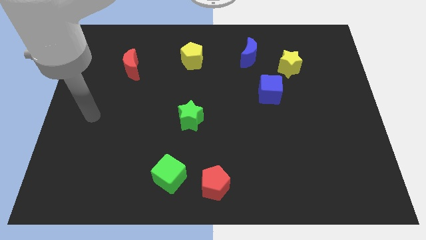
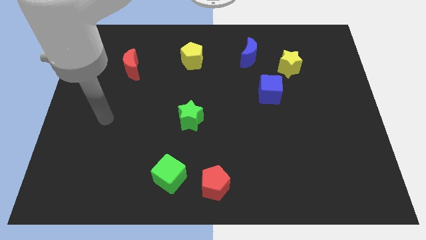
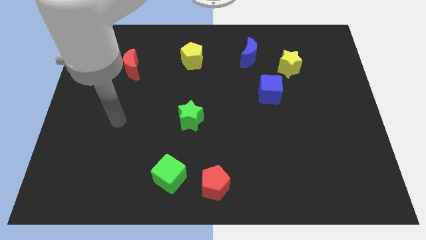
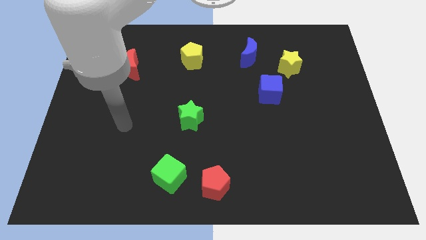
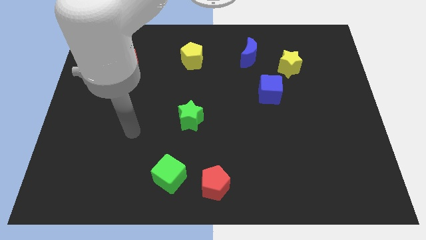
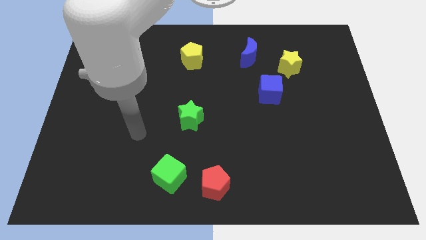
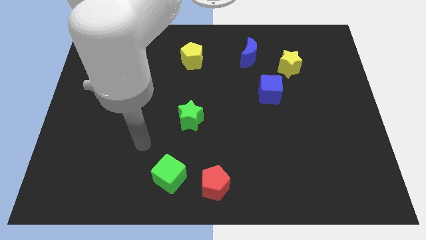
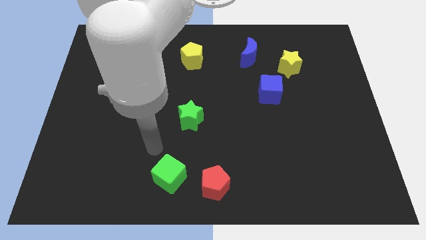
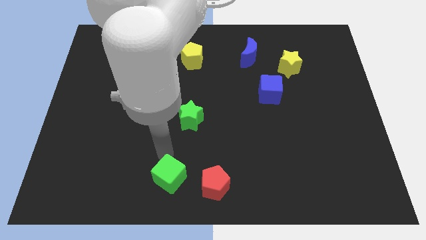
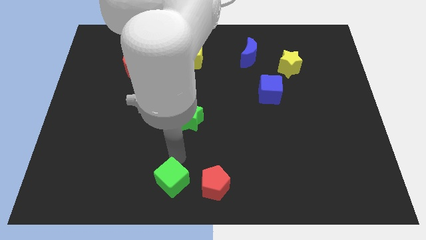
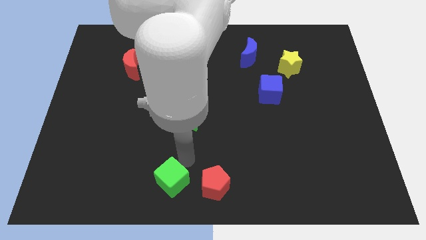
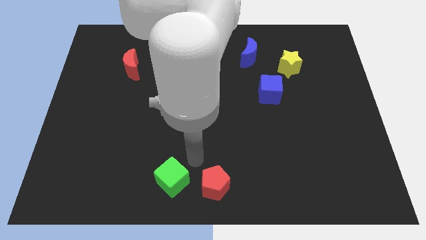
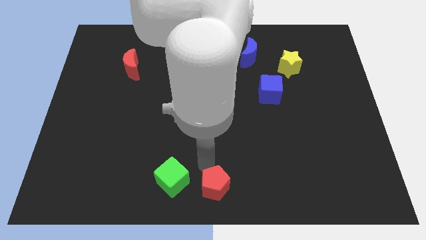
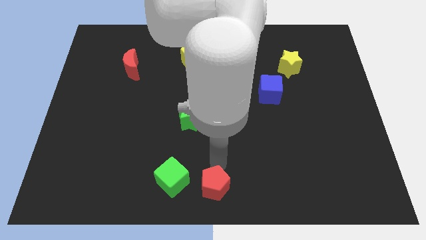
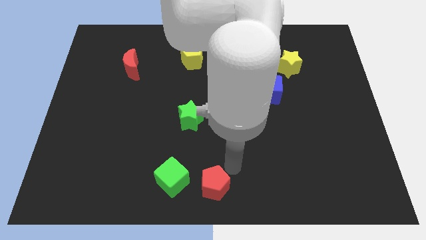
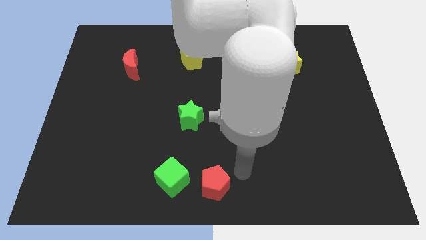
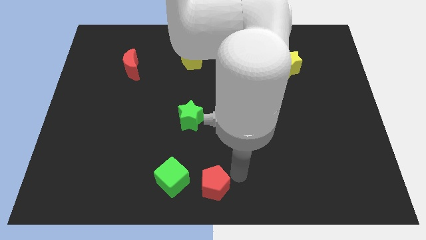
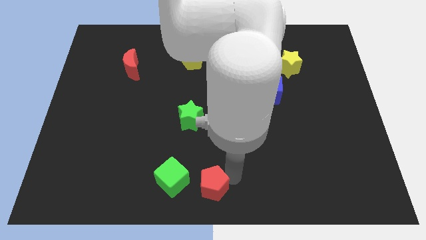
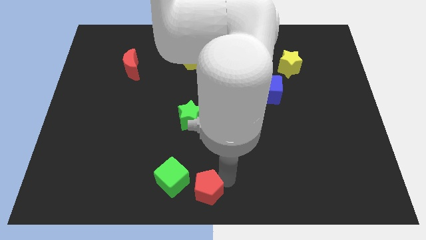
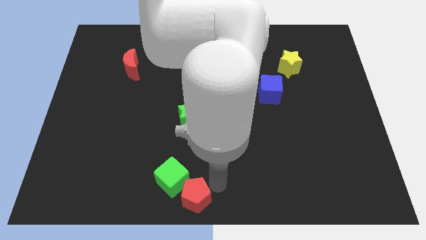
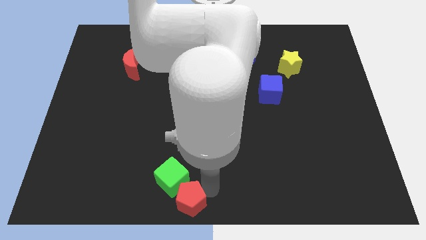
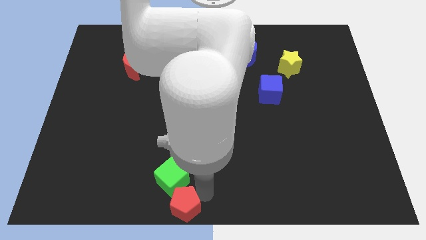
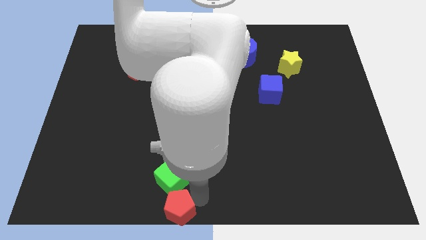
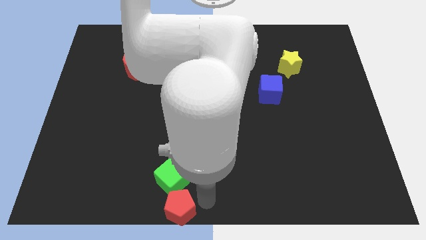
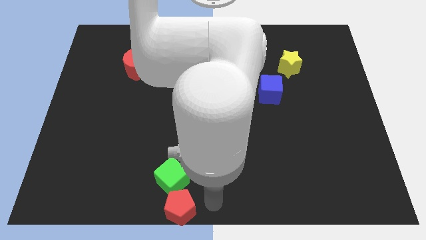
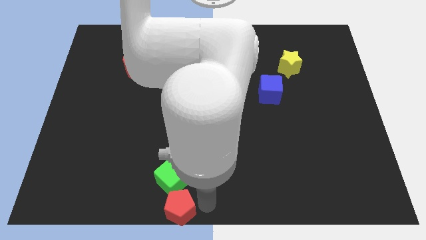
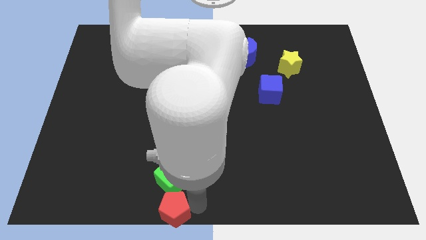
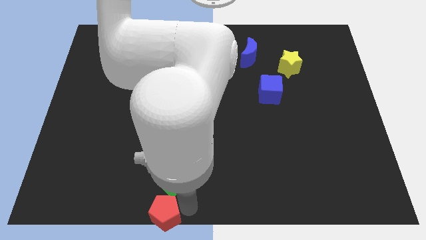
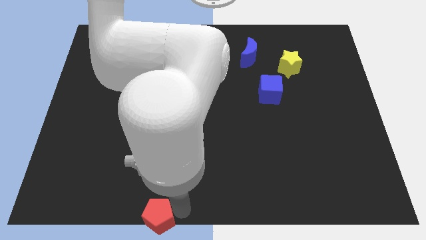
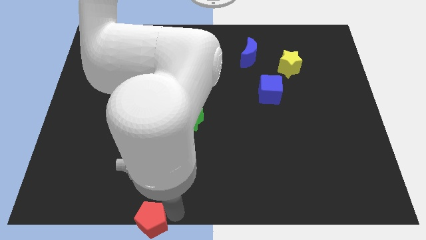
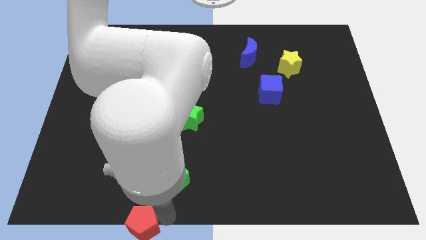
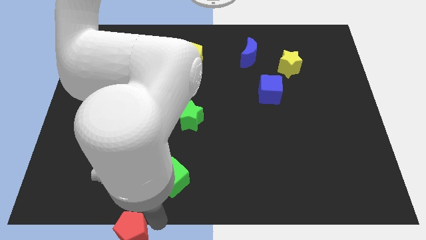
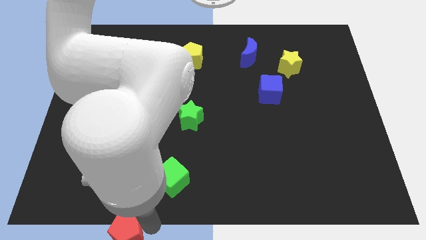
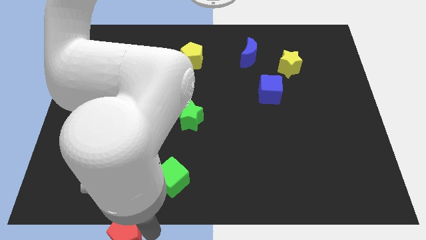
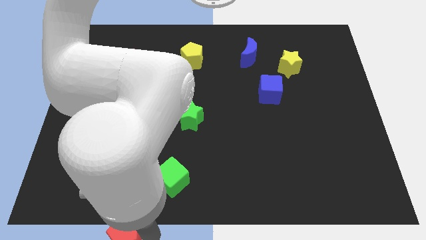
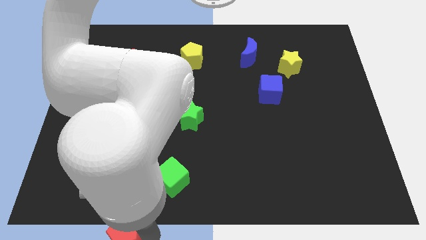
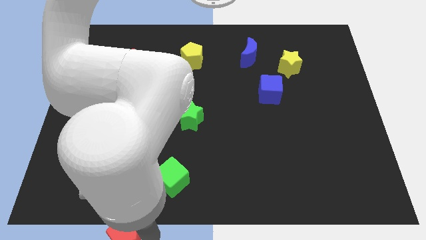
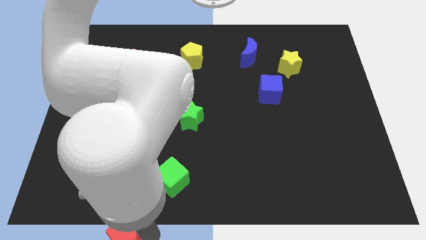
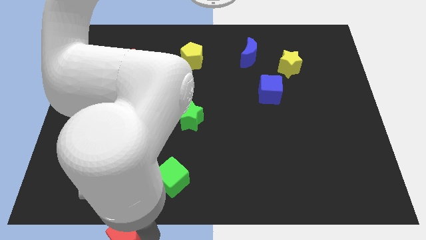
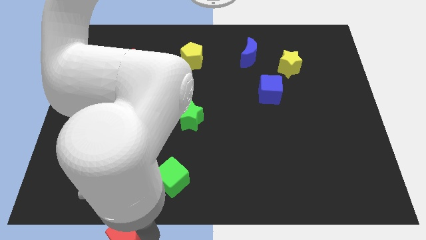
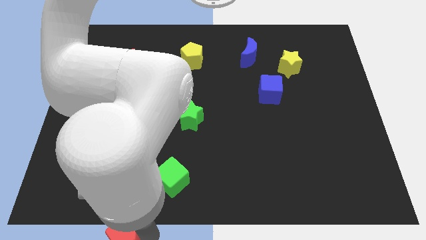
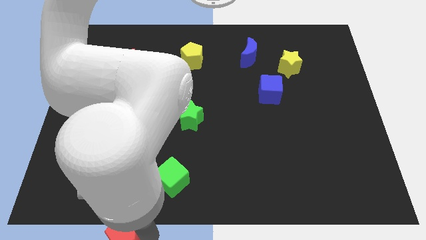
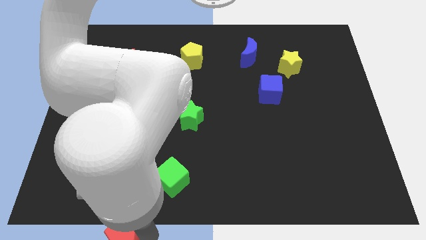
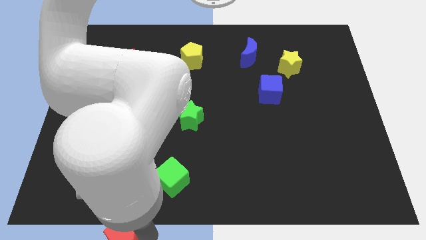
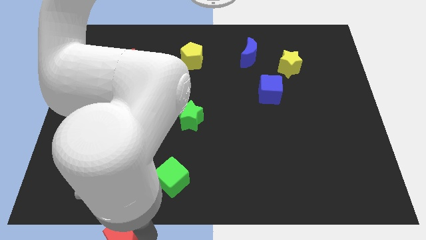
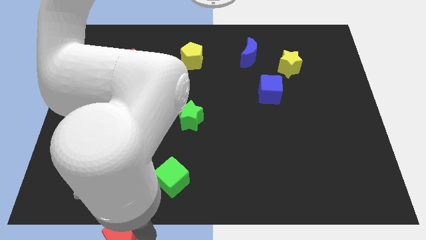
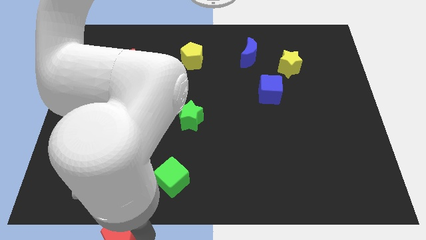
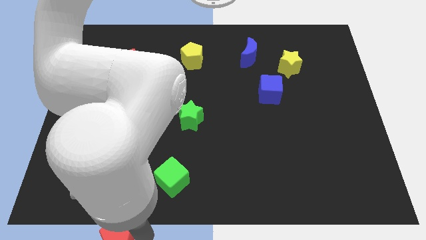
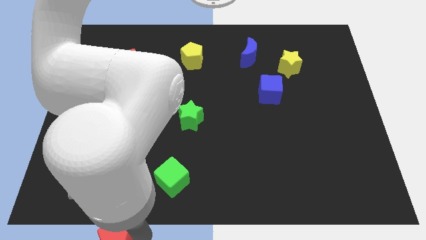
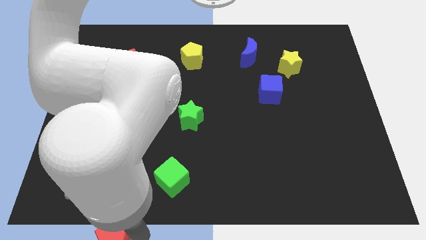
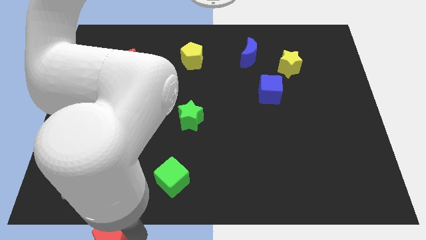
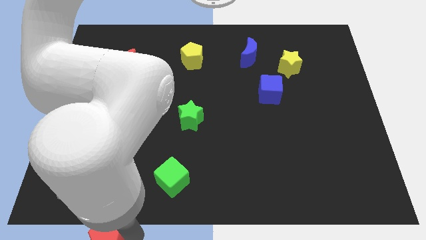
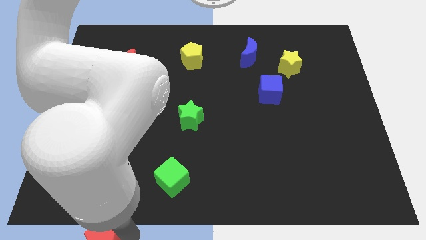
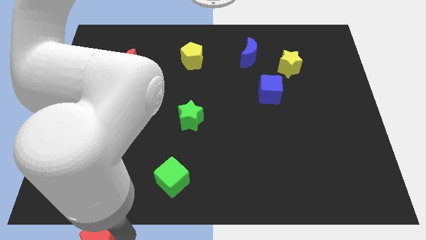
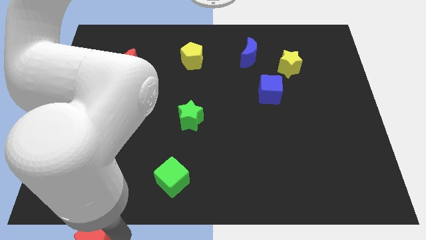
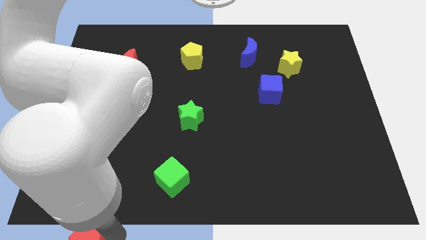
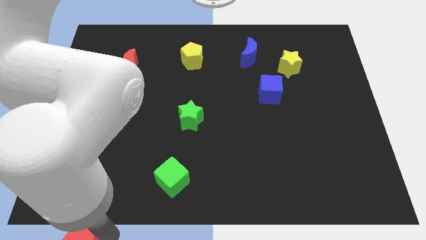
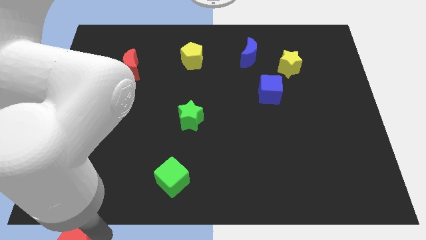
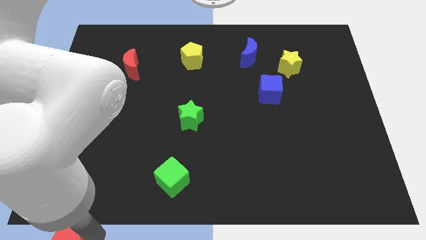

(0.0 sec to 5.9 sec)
move the red pentagon to the lower left corner

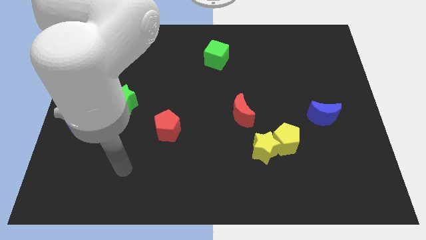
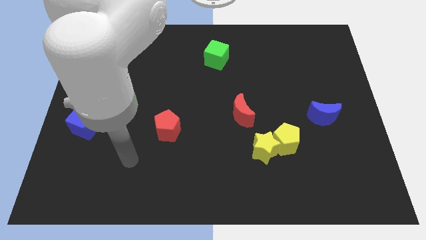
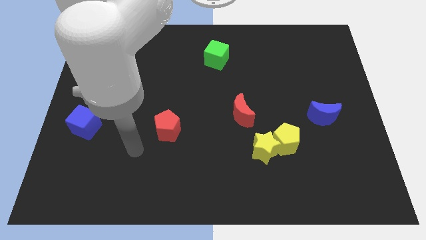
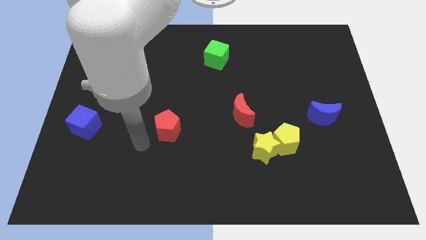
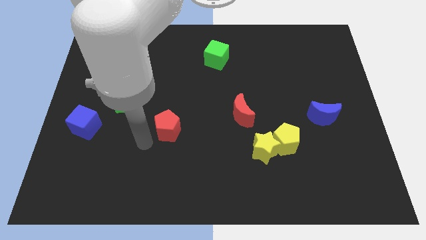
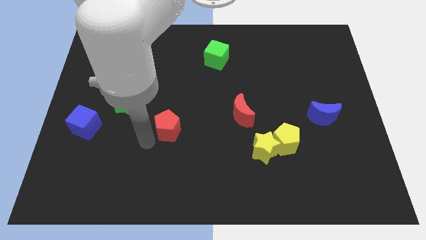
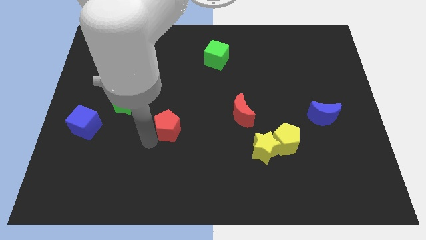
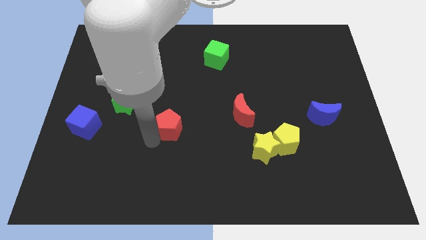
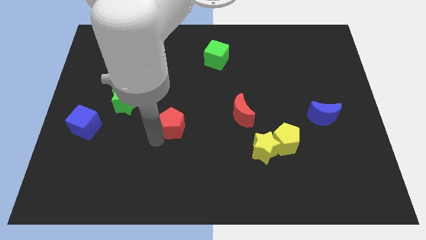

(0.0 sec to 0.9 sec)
slide the red pentagon to the middle of the board
